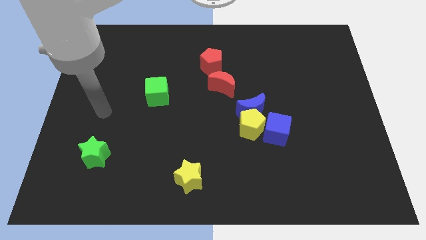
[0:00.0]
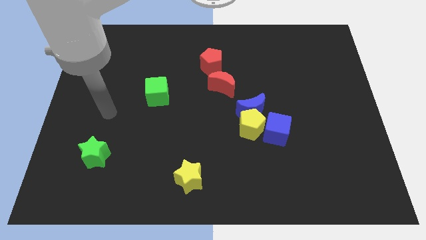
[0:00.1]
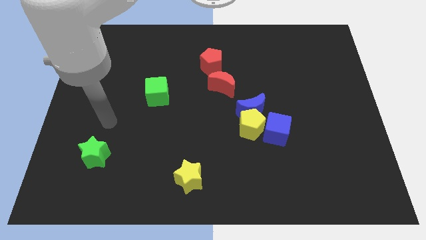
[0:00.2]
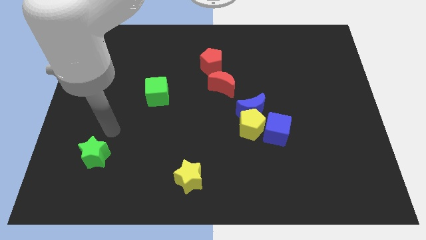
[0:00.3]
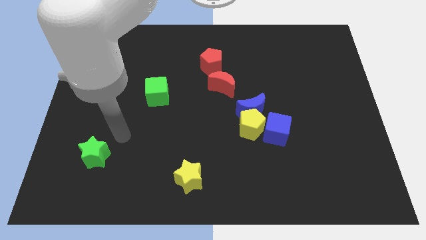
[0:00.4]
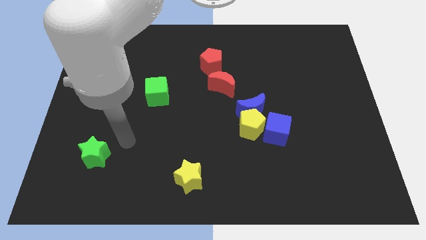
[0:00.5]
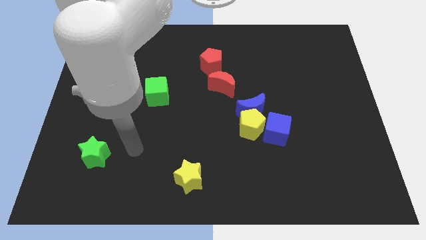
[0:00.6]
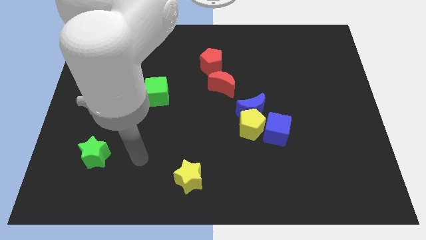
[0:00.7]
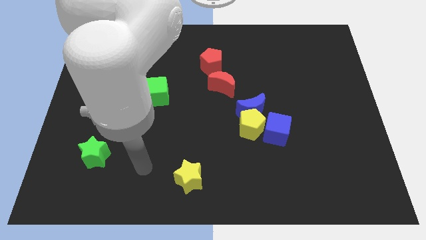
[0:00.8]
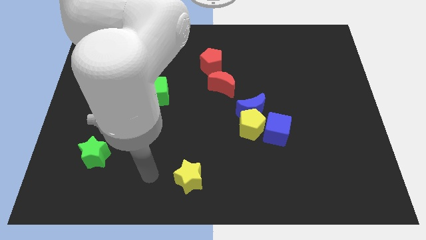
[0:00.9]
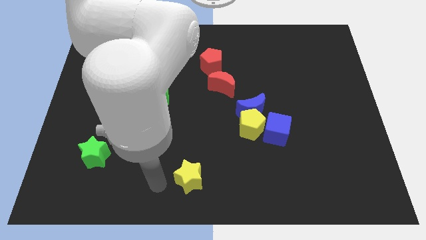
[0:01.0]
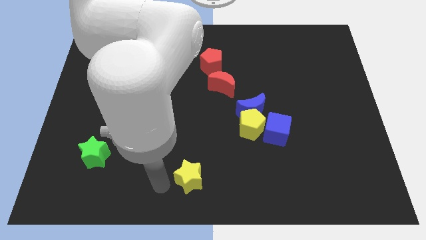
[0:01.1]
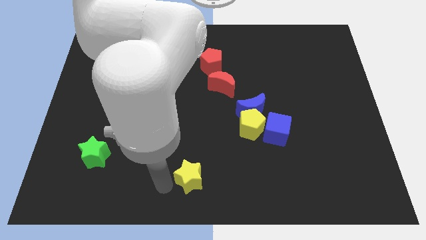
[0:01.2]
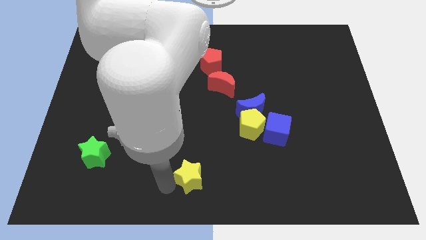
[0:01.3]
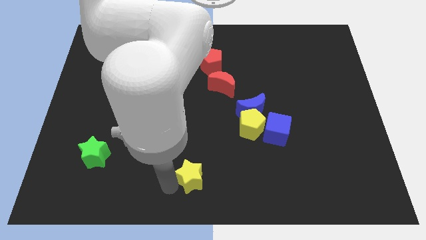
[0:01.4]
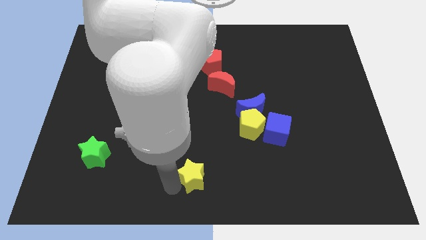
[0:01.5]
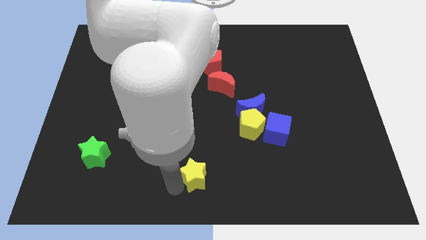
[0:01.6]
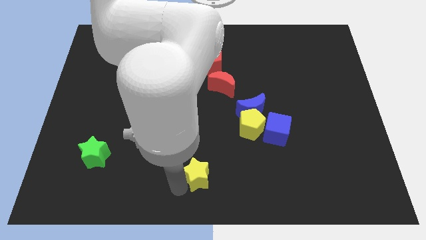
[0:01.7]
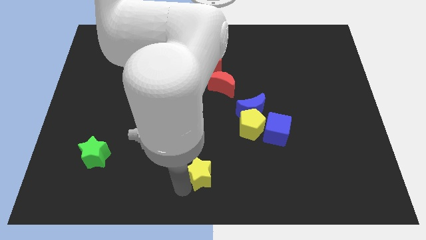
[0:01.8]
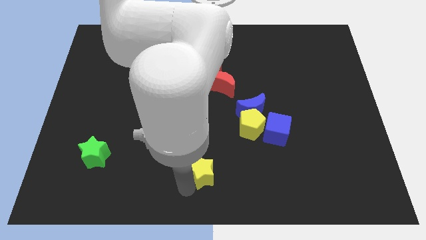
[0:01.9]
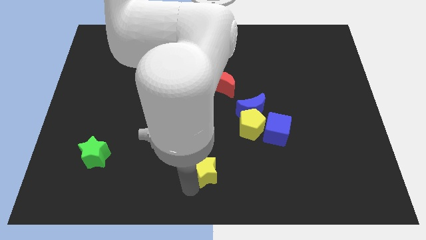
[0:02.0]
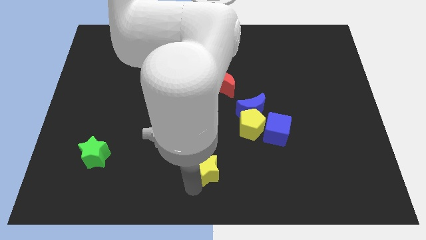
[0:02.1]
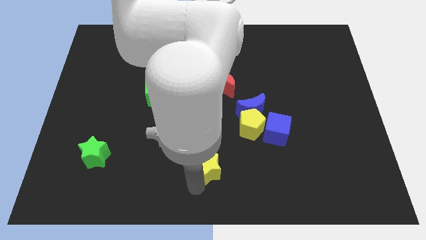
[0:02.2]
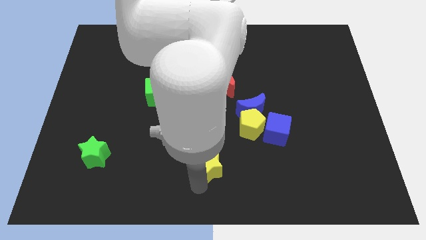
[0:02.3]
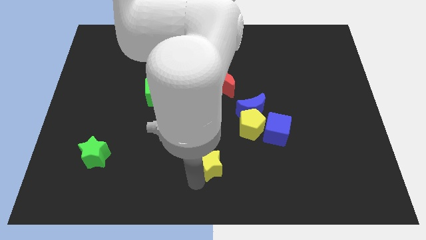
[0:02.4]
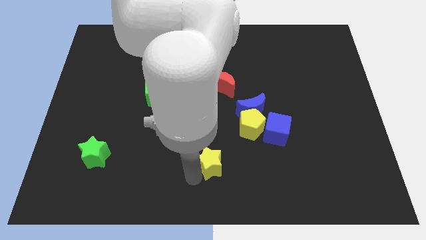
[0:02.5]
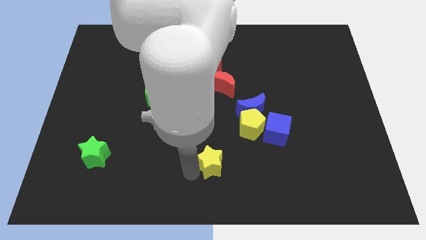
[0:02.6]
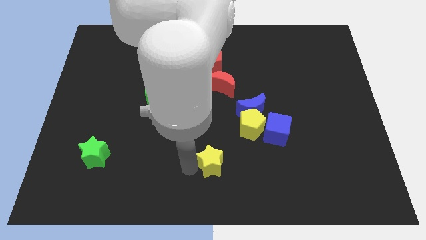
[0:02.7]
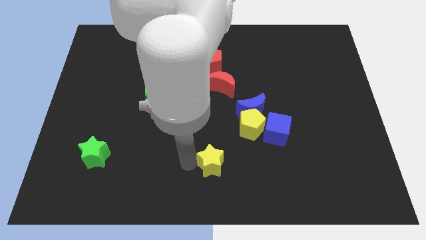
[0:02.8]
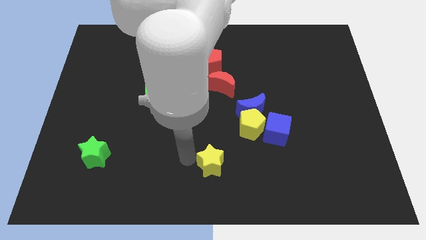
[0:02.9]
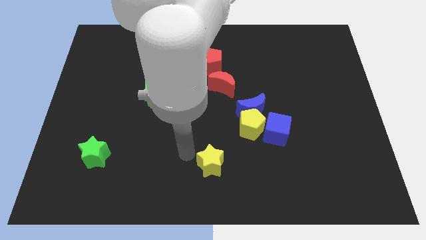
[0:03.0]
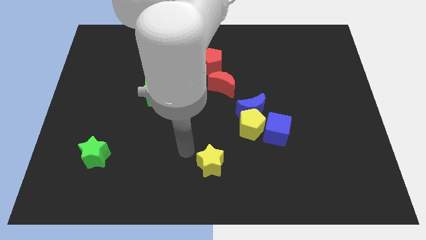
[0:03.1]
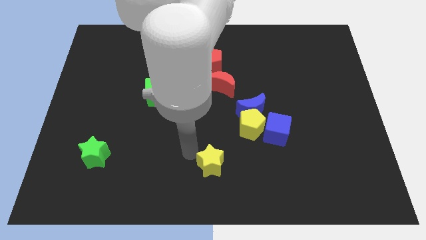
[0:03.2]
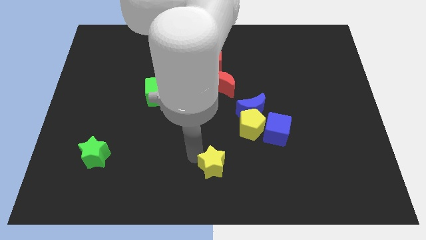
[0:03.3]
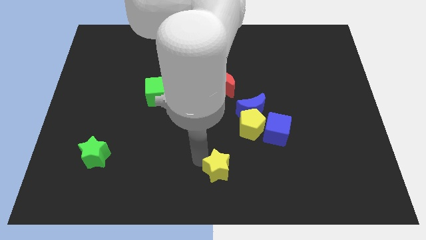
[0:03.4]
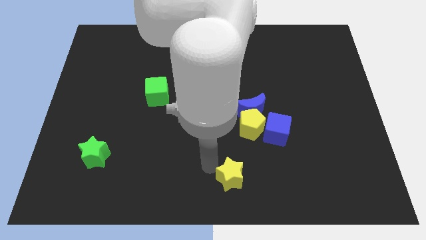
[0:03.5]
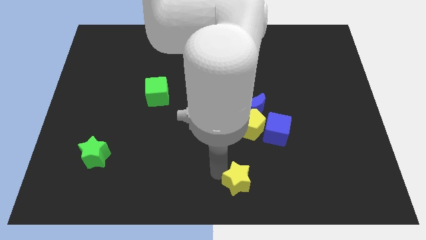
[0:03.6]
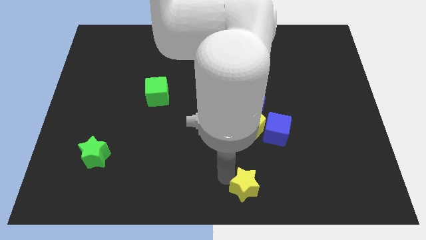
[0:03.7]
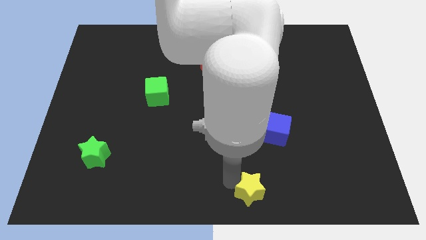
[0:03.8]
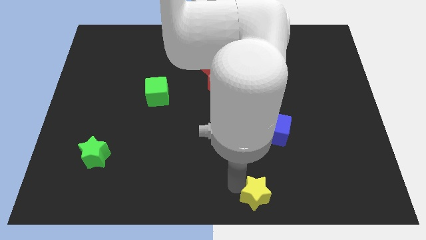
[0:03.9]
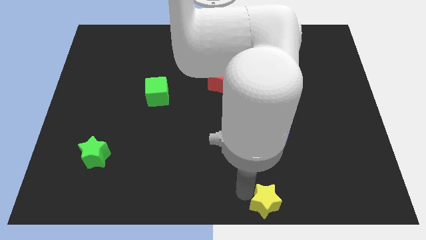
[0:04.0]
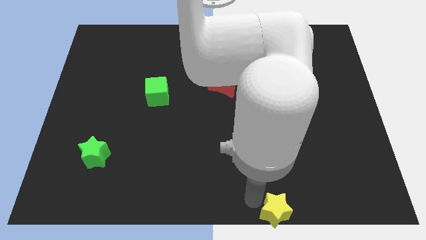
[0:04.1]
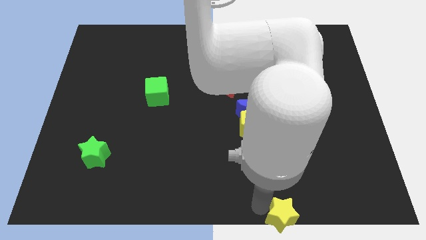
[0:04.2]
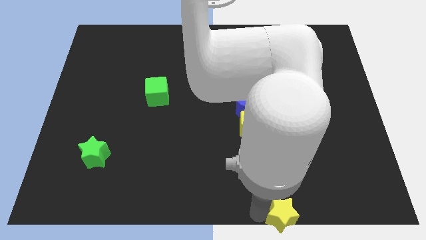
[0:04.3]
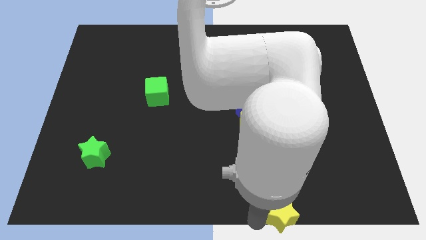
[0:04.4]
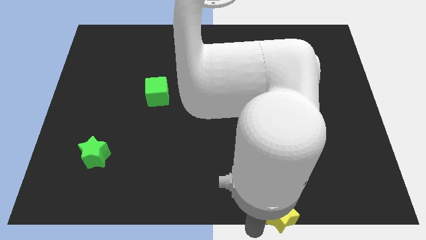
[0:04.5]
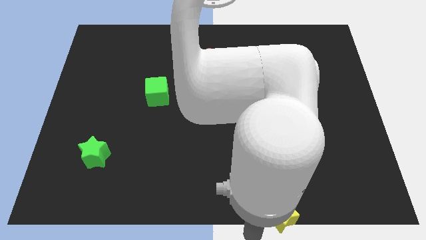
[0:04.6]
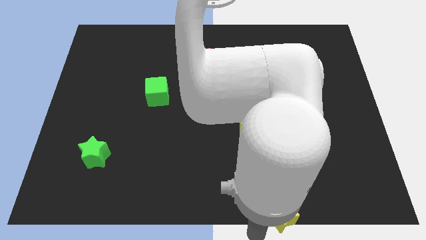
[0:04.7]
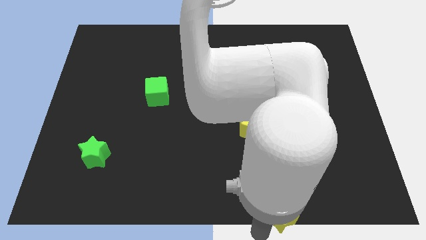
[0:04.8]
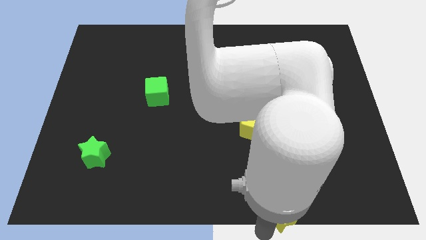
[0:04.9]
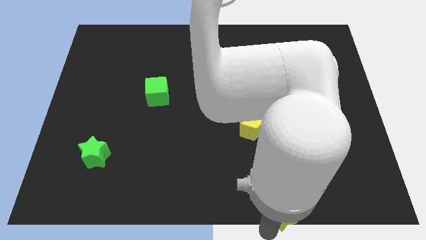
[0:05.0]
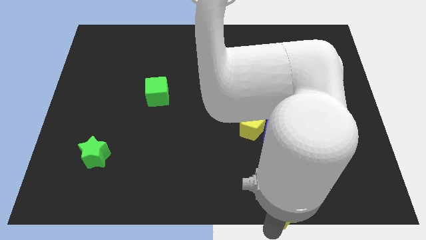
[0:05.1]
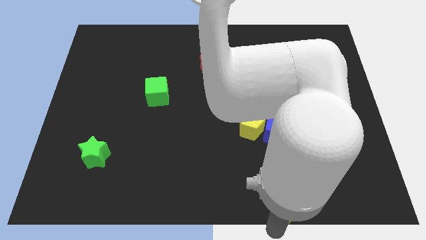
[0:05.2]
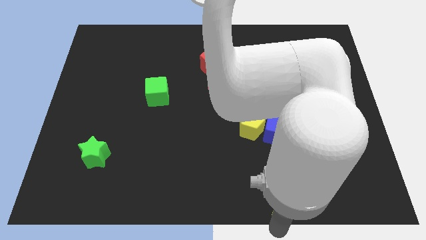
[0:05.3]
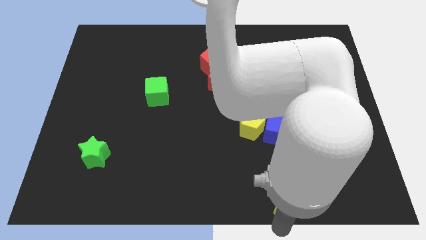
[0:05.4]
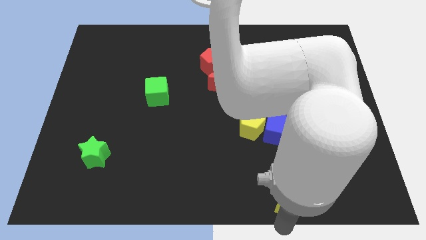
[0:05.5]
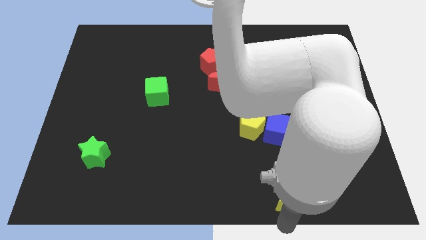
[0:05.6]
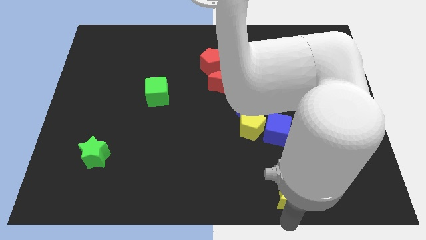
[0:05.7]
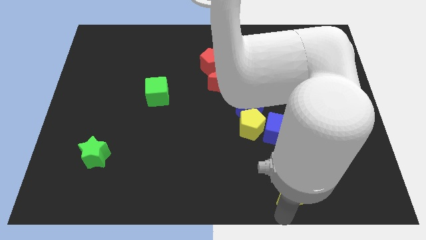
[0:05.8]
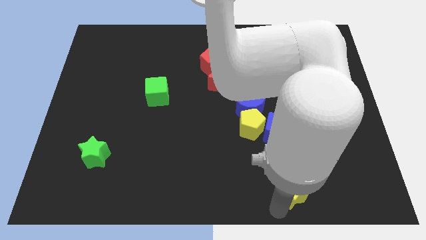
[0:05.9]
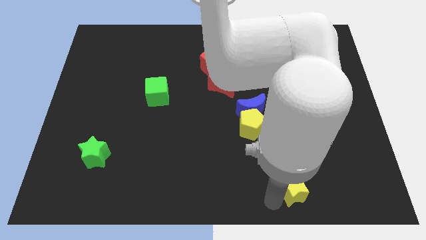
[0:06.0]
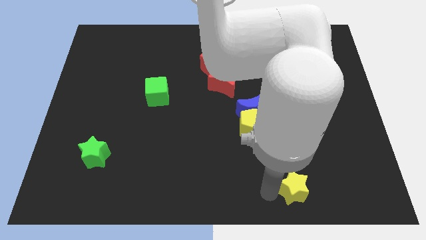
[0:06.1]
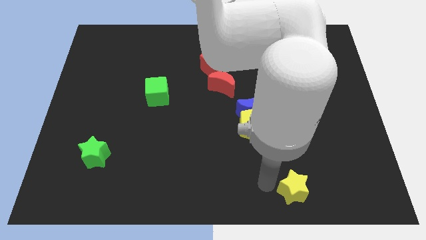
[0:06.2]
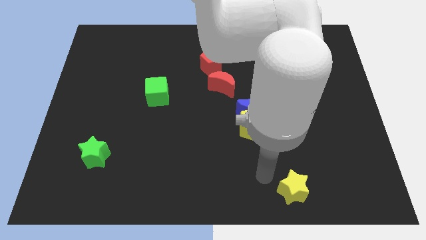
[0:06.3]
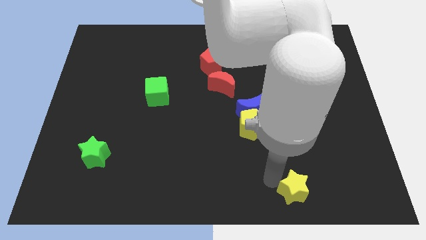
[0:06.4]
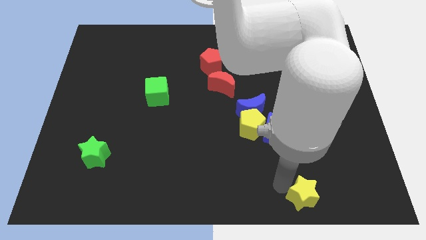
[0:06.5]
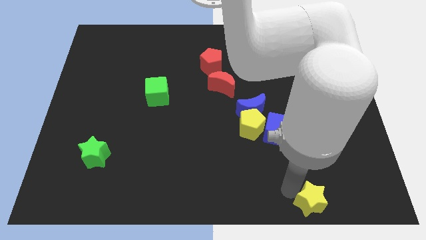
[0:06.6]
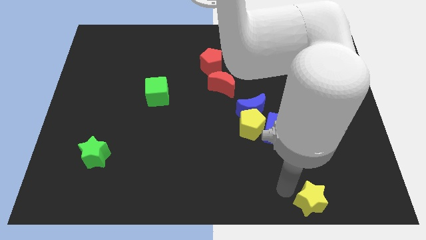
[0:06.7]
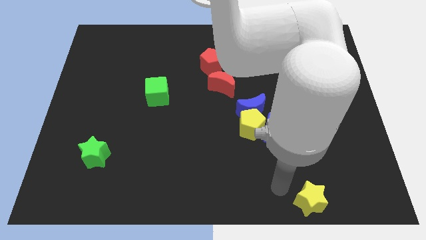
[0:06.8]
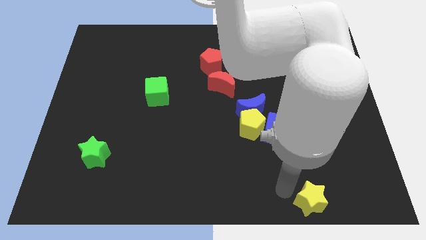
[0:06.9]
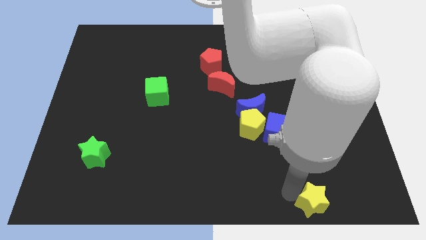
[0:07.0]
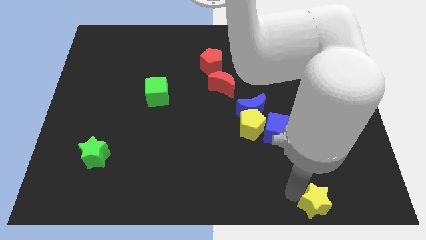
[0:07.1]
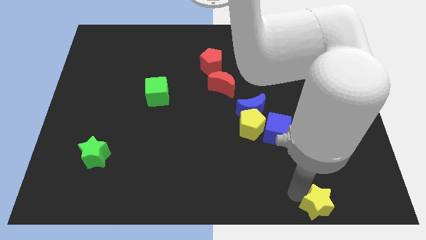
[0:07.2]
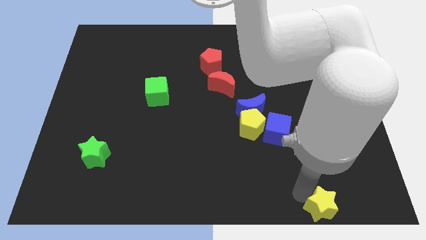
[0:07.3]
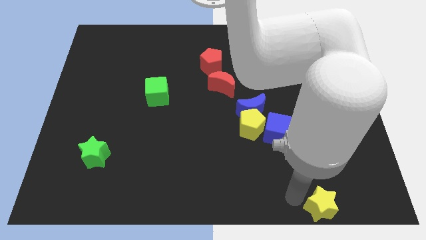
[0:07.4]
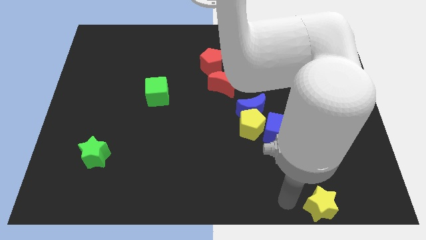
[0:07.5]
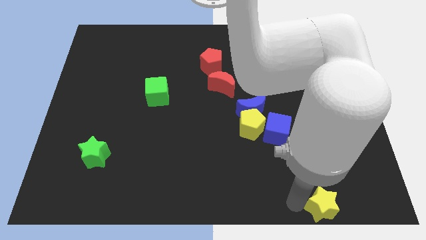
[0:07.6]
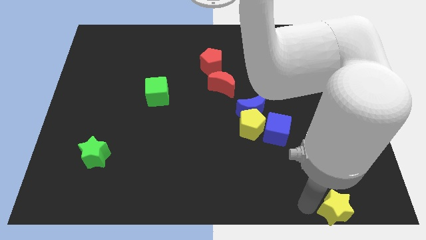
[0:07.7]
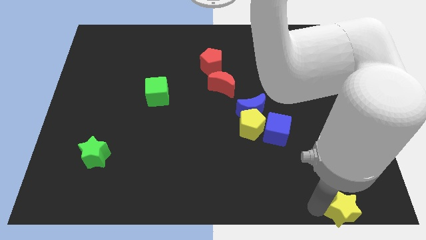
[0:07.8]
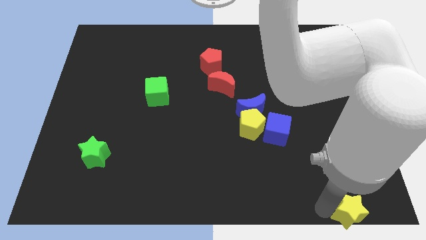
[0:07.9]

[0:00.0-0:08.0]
move the yellow star to the bottom right
